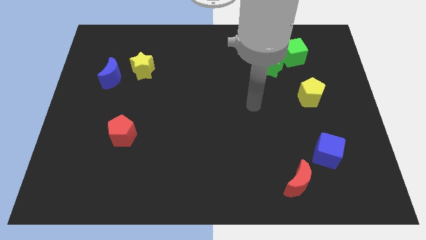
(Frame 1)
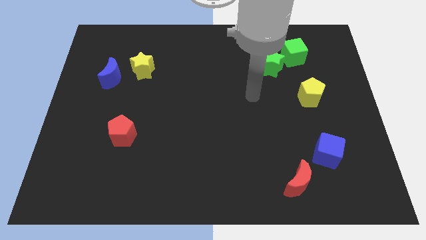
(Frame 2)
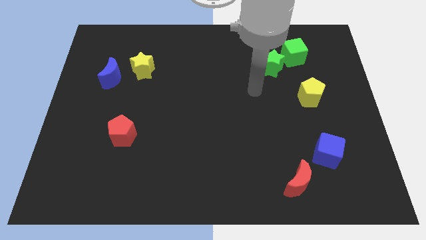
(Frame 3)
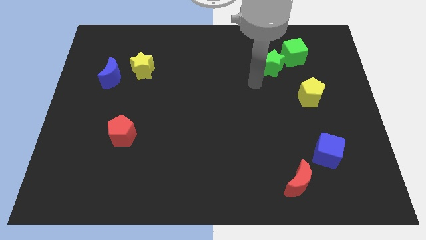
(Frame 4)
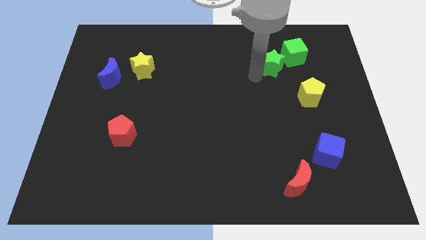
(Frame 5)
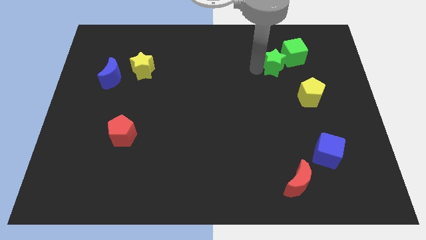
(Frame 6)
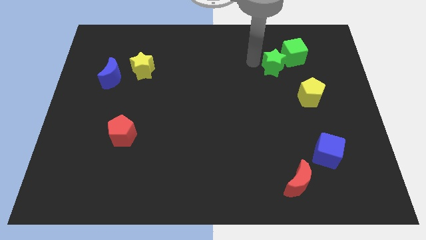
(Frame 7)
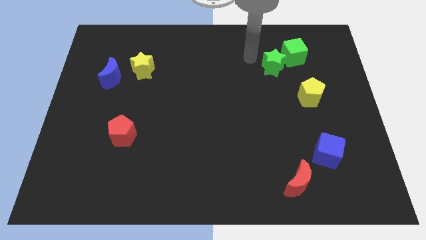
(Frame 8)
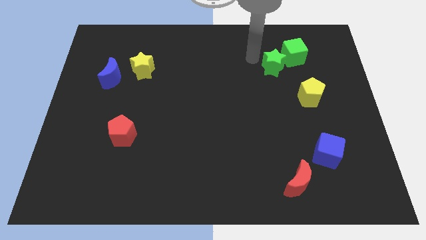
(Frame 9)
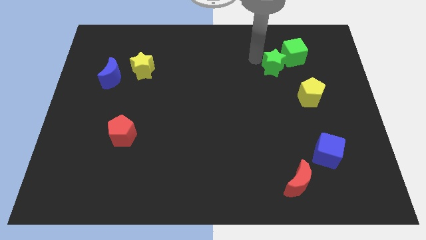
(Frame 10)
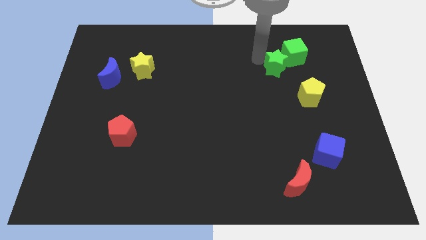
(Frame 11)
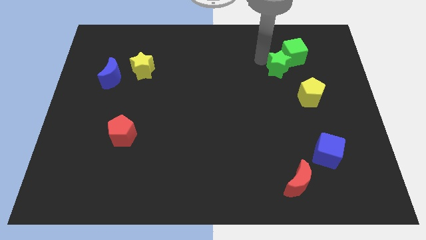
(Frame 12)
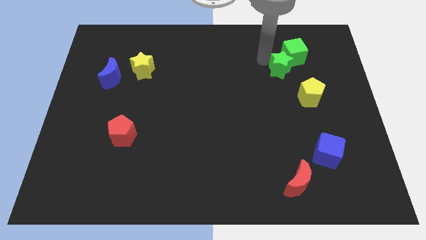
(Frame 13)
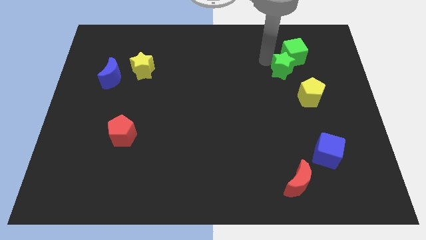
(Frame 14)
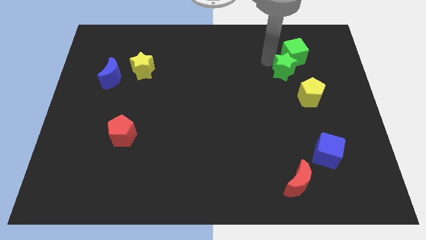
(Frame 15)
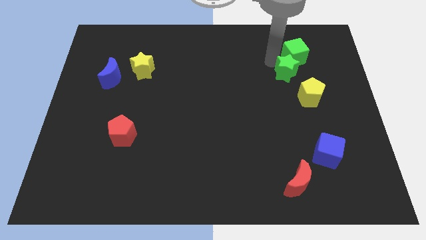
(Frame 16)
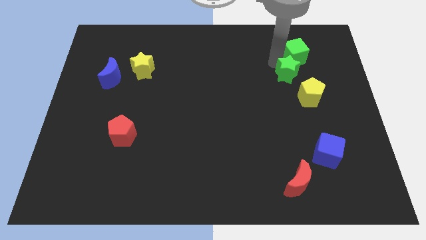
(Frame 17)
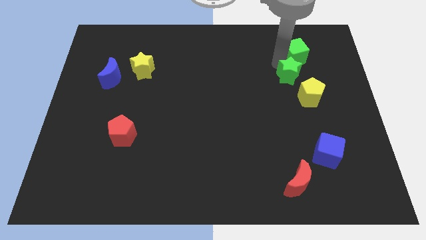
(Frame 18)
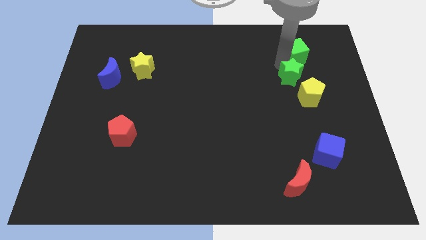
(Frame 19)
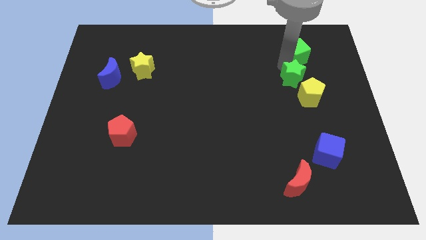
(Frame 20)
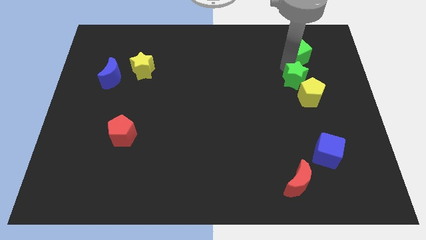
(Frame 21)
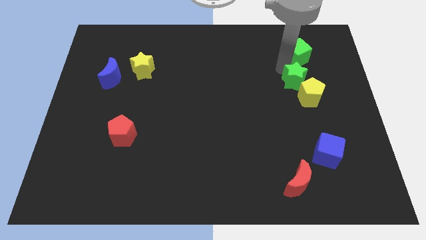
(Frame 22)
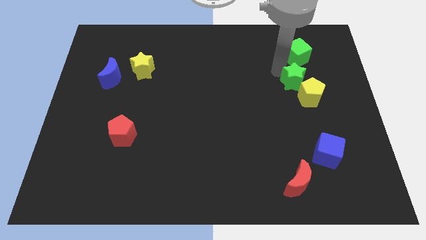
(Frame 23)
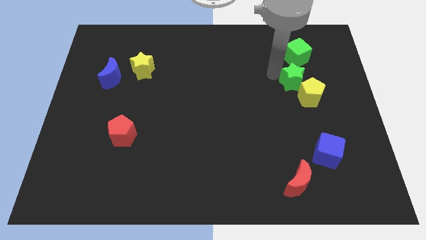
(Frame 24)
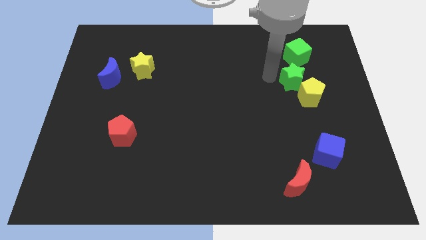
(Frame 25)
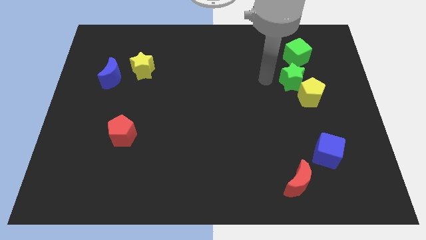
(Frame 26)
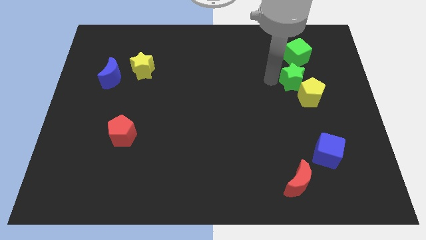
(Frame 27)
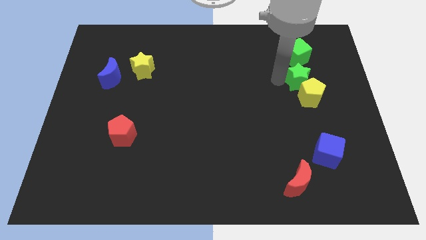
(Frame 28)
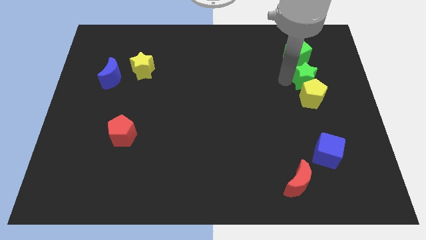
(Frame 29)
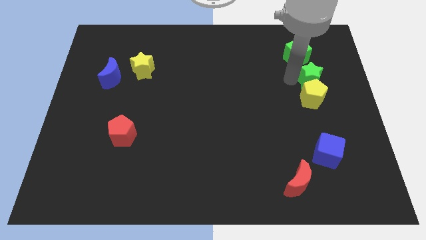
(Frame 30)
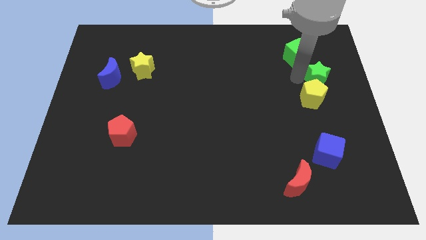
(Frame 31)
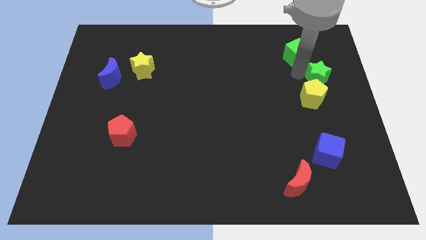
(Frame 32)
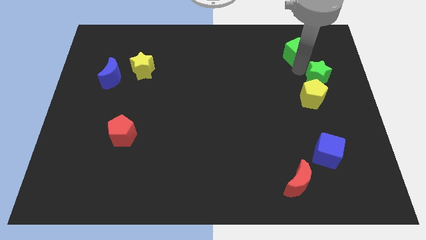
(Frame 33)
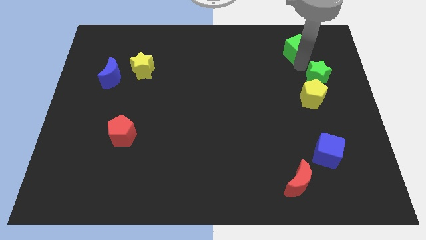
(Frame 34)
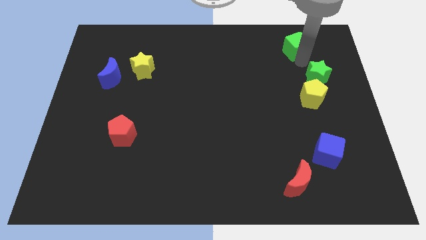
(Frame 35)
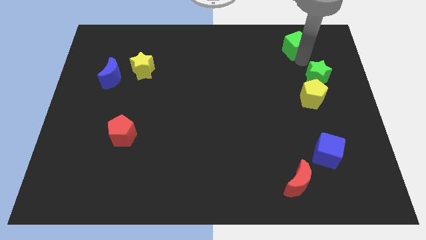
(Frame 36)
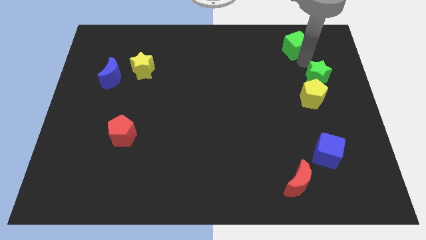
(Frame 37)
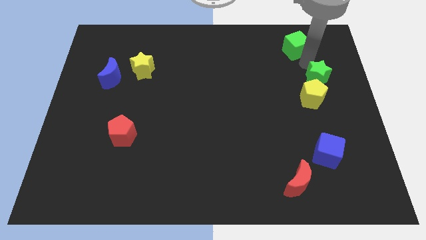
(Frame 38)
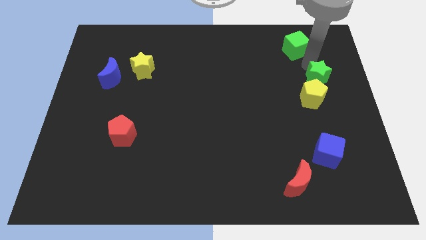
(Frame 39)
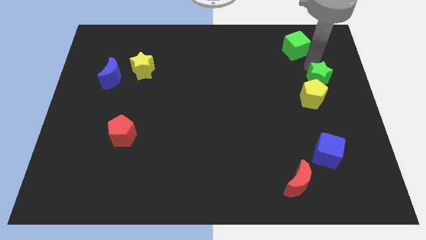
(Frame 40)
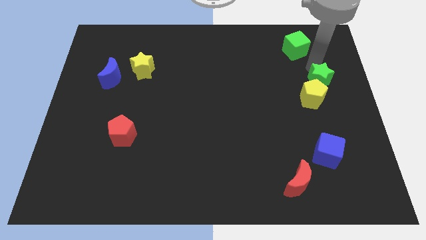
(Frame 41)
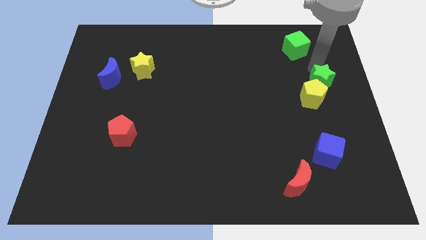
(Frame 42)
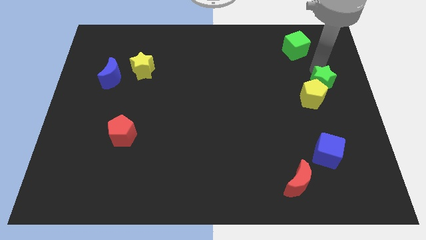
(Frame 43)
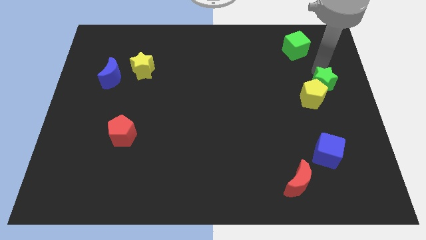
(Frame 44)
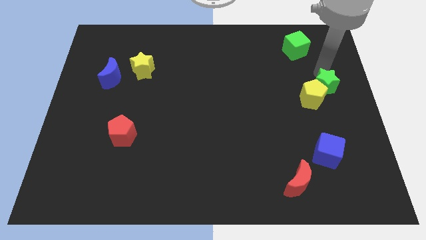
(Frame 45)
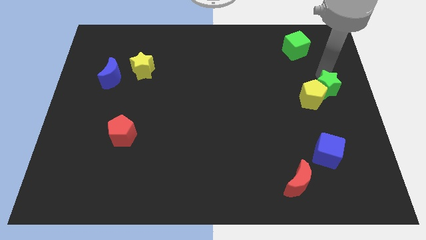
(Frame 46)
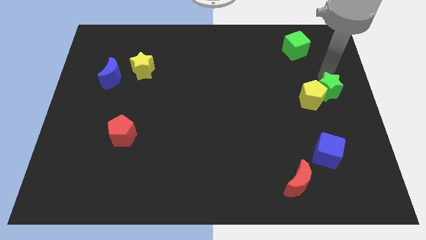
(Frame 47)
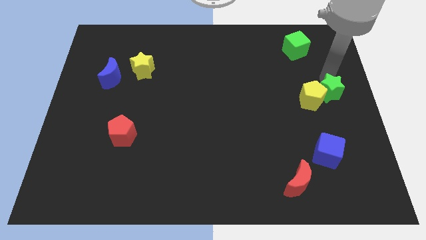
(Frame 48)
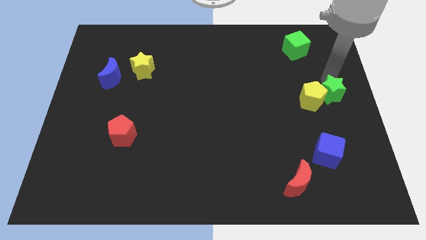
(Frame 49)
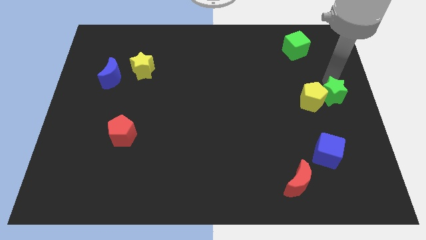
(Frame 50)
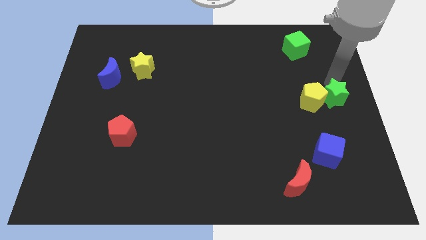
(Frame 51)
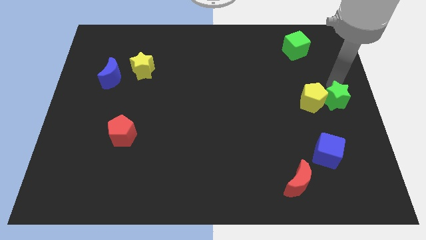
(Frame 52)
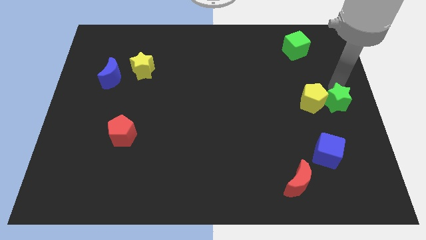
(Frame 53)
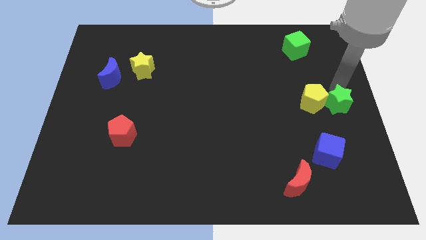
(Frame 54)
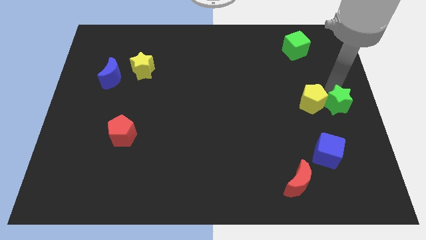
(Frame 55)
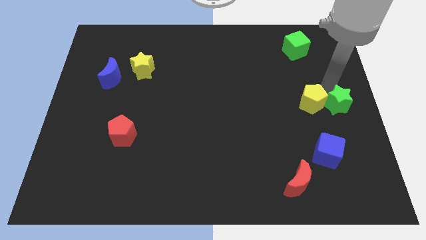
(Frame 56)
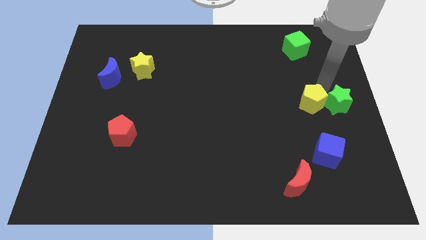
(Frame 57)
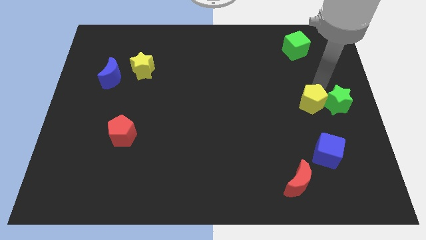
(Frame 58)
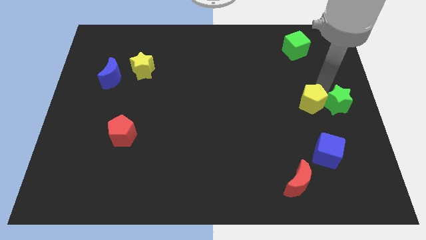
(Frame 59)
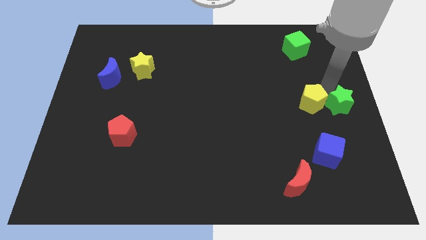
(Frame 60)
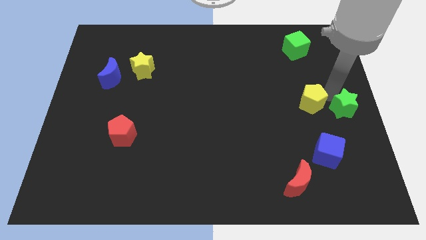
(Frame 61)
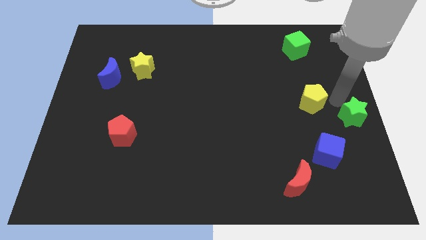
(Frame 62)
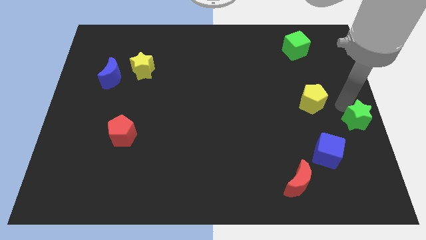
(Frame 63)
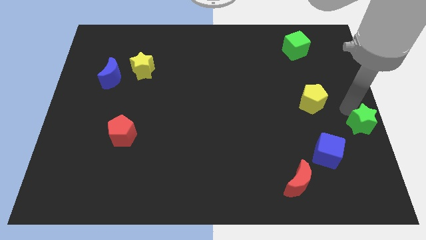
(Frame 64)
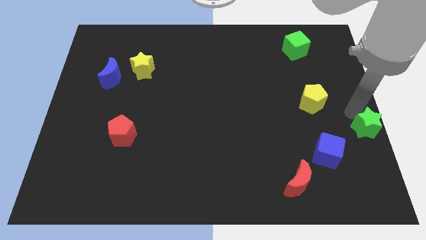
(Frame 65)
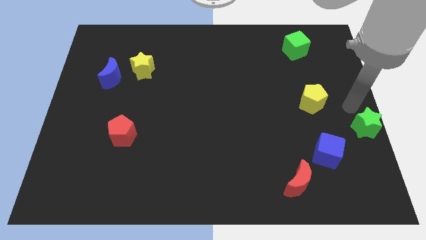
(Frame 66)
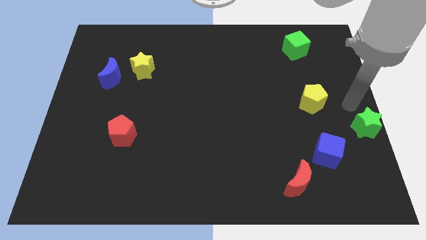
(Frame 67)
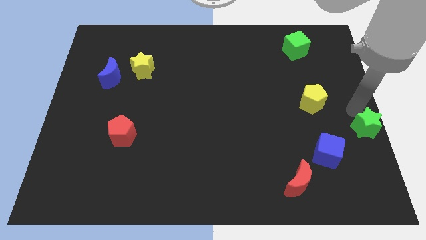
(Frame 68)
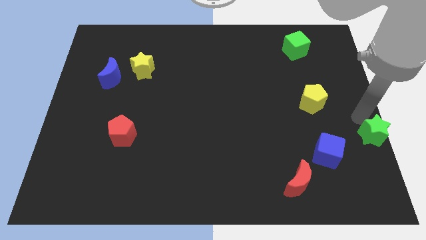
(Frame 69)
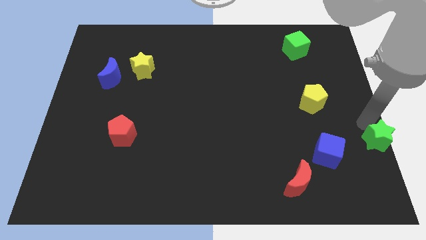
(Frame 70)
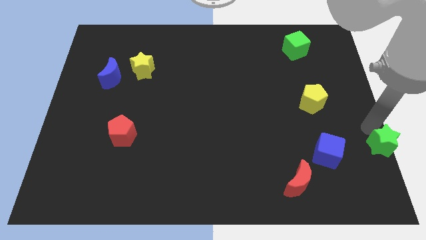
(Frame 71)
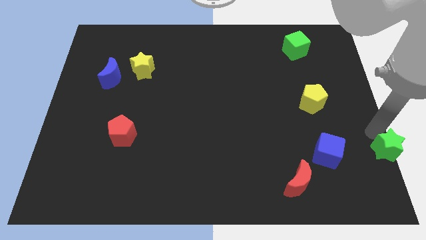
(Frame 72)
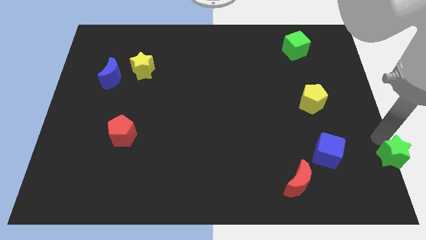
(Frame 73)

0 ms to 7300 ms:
put the green star to the bottom right
